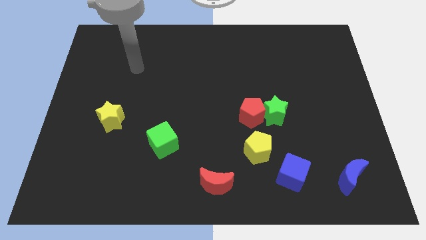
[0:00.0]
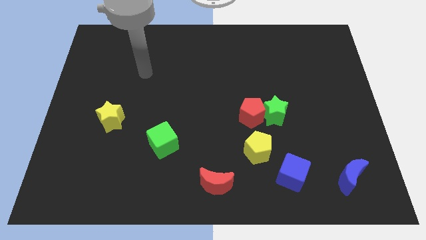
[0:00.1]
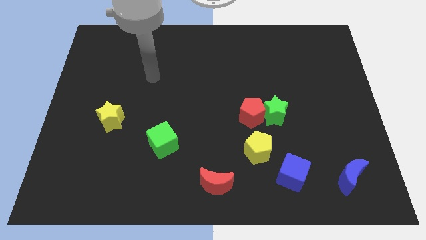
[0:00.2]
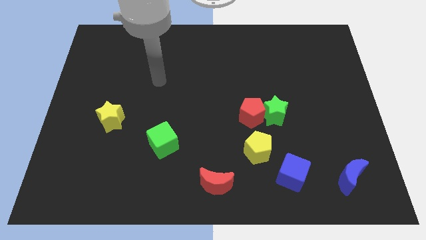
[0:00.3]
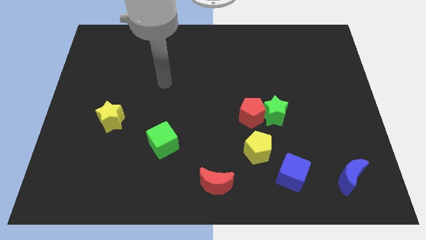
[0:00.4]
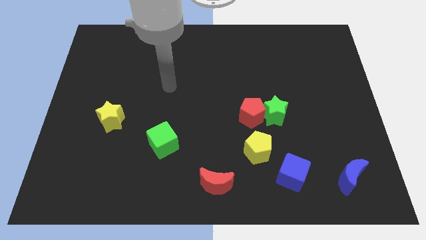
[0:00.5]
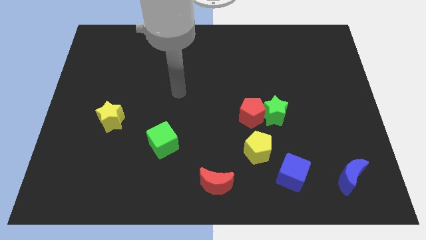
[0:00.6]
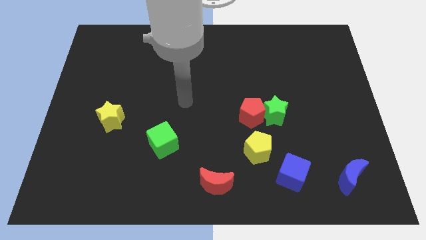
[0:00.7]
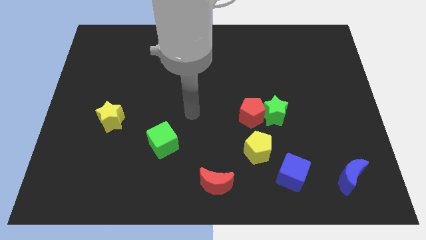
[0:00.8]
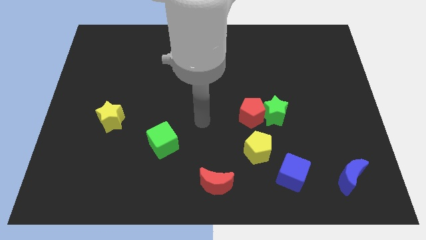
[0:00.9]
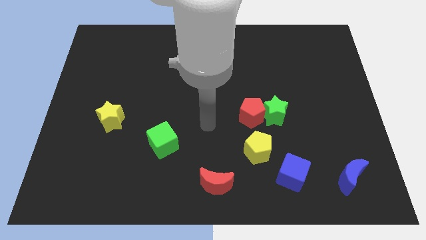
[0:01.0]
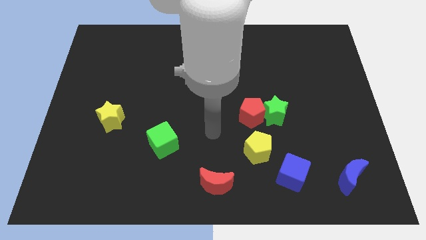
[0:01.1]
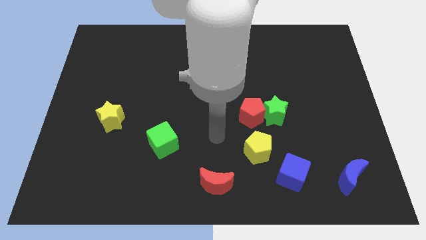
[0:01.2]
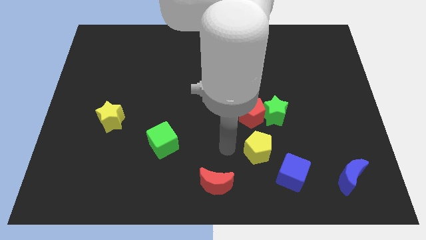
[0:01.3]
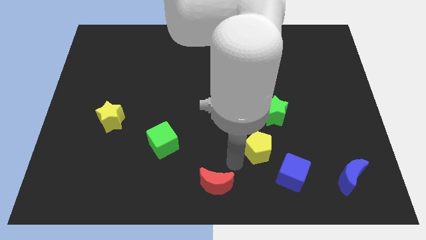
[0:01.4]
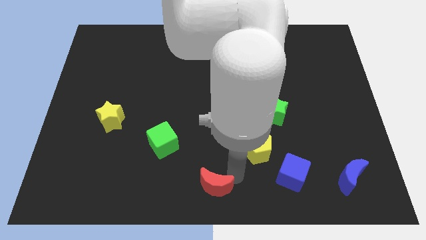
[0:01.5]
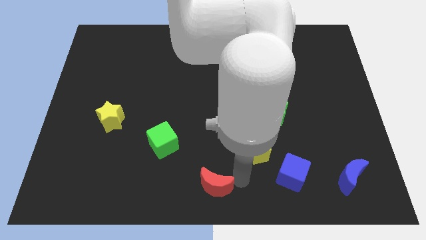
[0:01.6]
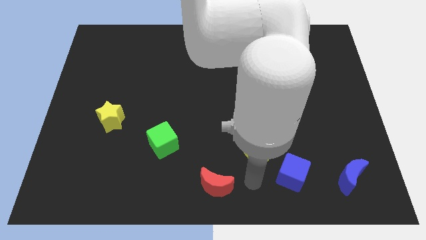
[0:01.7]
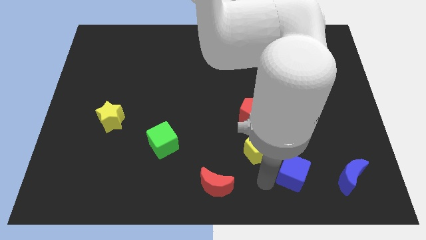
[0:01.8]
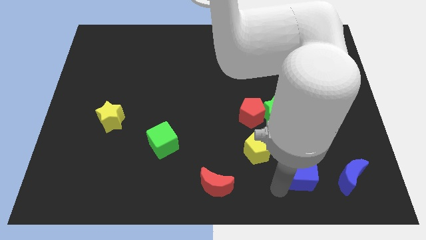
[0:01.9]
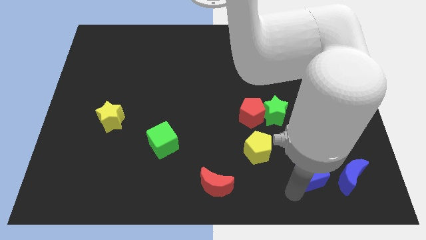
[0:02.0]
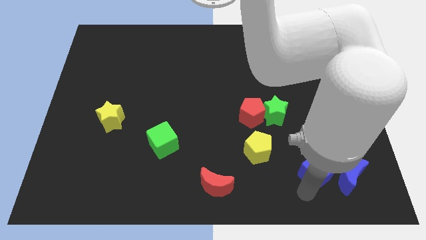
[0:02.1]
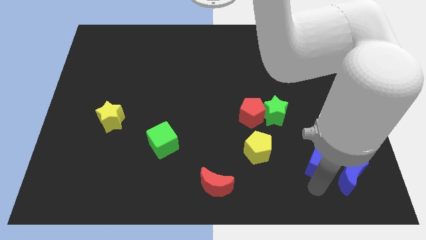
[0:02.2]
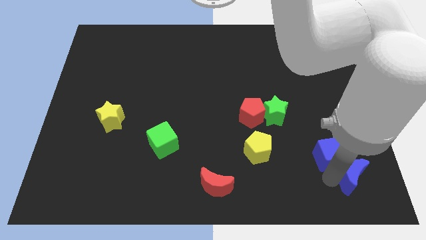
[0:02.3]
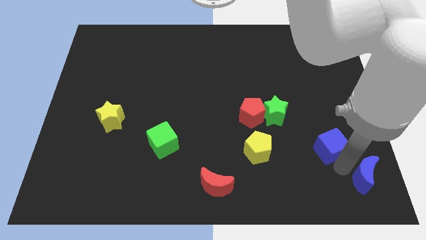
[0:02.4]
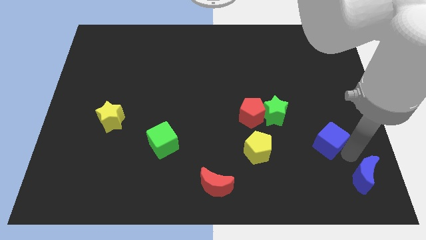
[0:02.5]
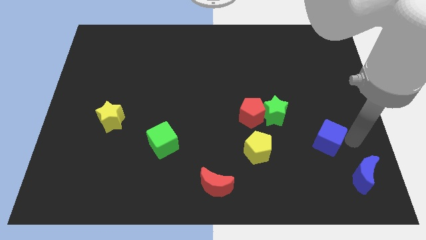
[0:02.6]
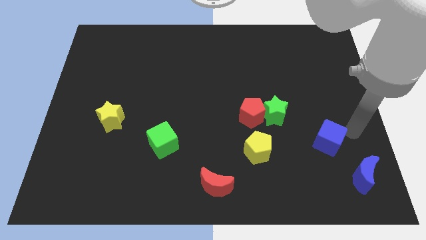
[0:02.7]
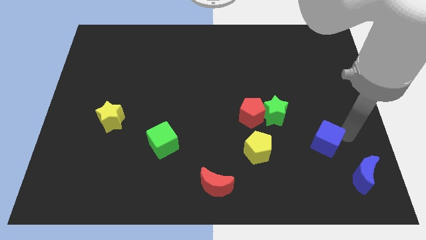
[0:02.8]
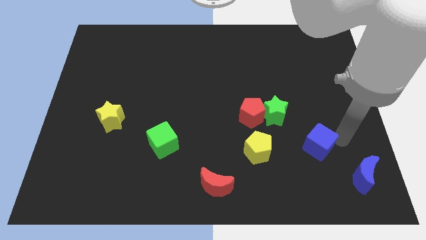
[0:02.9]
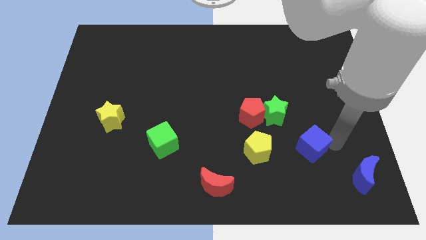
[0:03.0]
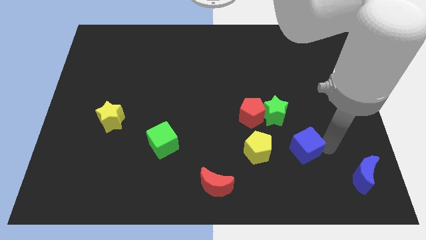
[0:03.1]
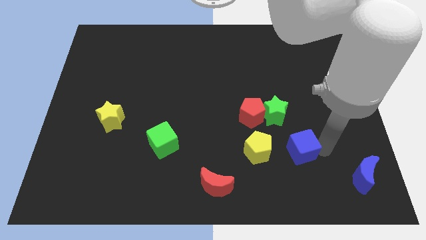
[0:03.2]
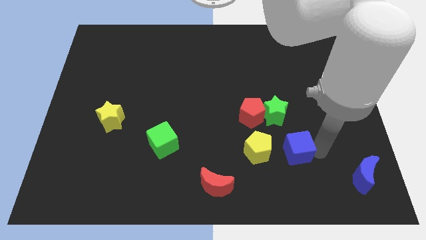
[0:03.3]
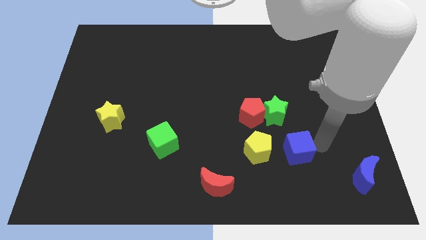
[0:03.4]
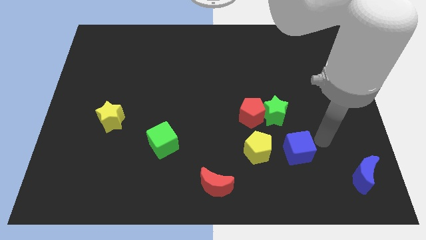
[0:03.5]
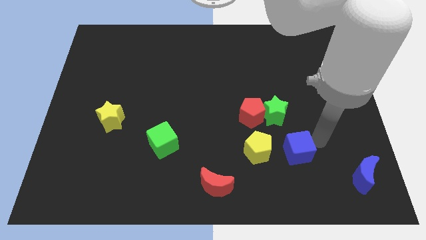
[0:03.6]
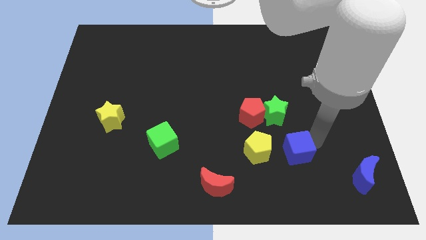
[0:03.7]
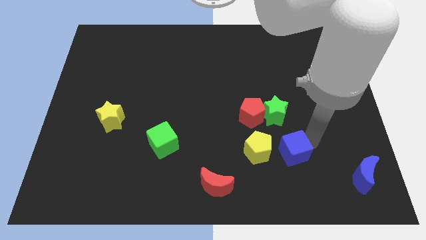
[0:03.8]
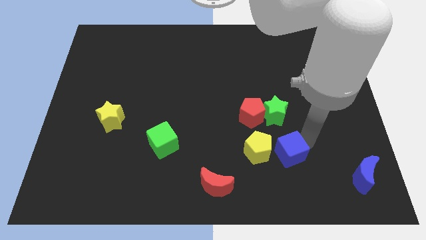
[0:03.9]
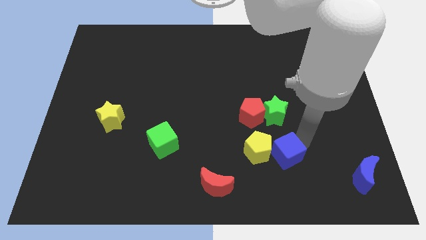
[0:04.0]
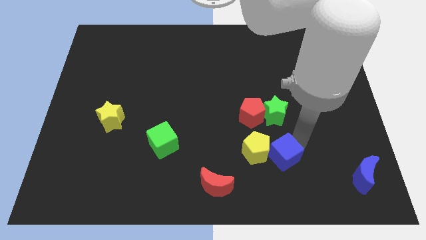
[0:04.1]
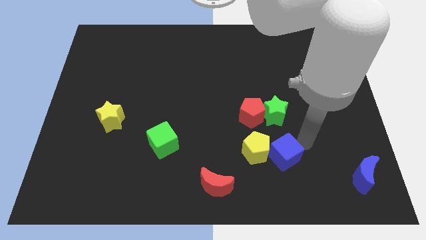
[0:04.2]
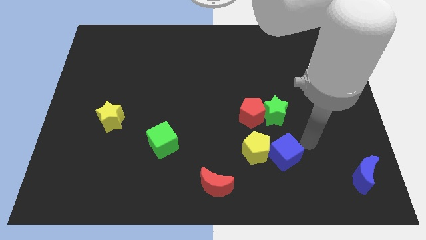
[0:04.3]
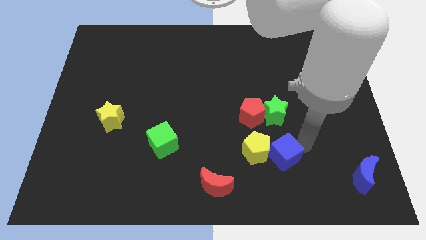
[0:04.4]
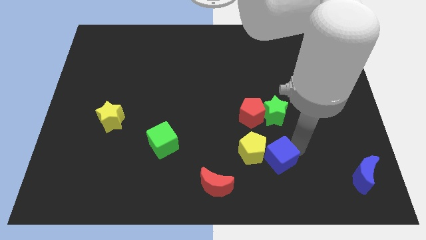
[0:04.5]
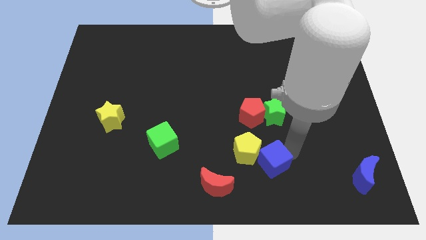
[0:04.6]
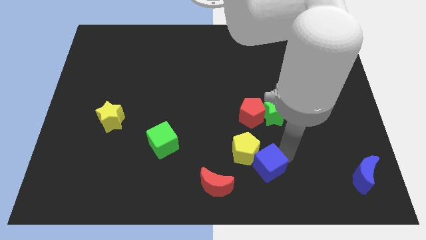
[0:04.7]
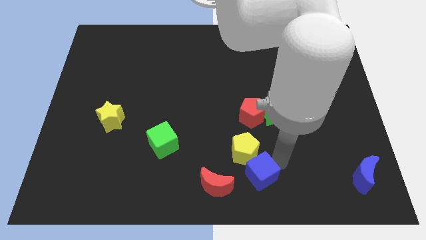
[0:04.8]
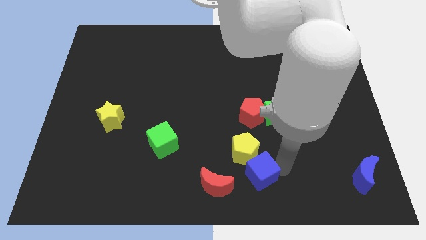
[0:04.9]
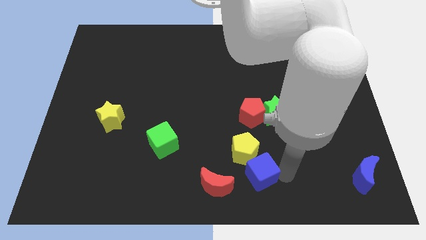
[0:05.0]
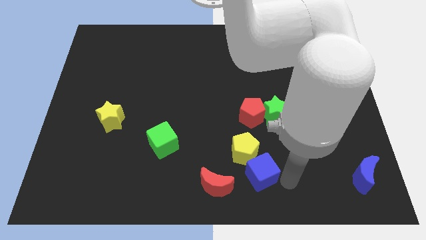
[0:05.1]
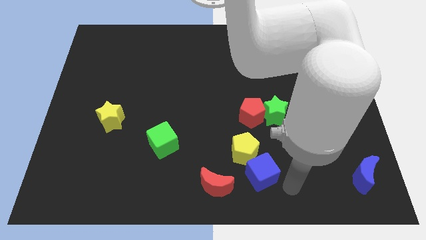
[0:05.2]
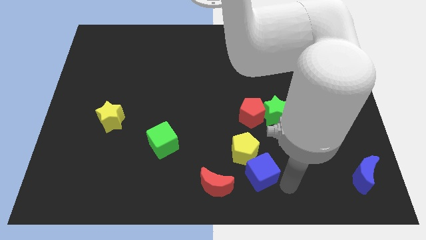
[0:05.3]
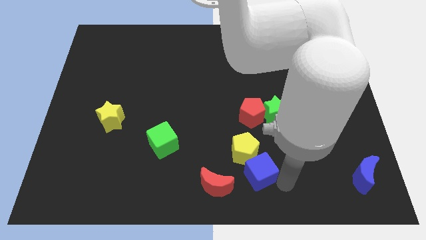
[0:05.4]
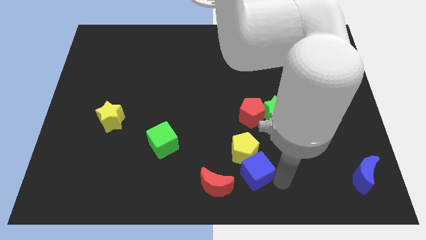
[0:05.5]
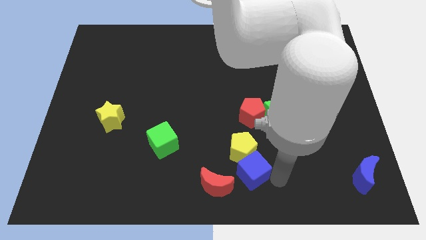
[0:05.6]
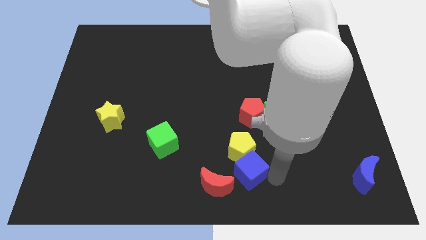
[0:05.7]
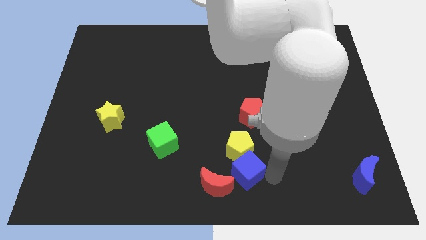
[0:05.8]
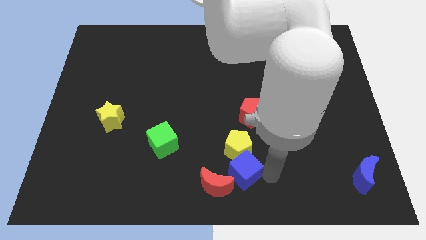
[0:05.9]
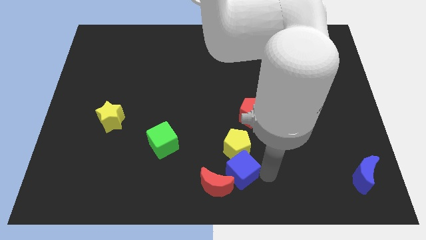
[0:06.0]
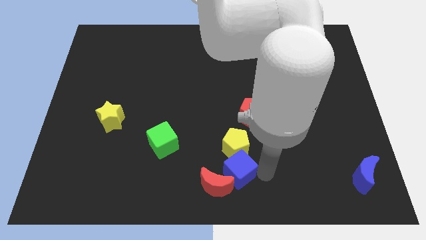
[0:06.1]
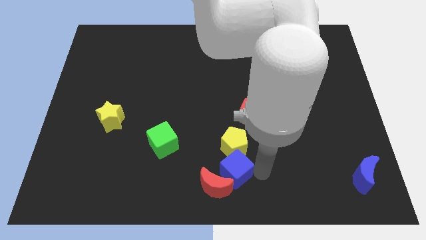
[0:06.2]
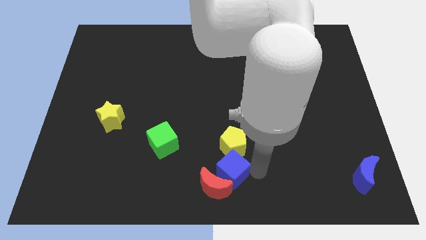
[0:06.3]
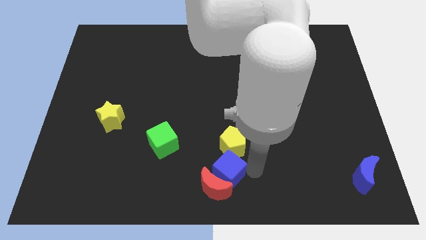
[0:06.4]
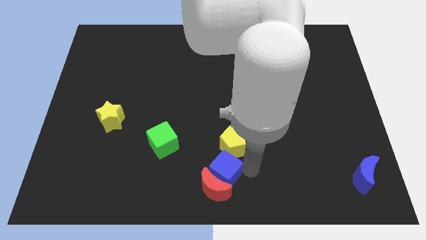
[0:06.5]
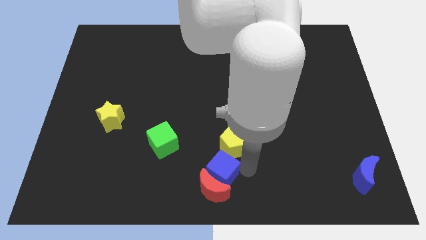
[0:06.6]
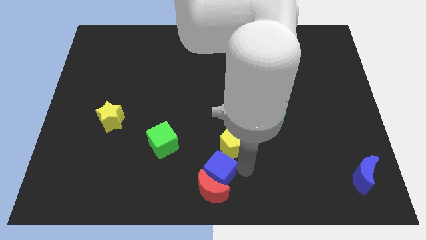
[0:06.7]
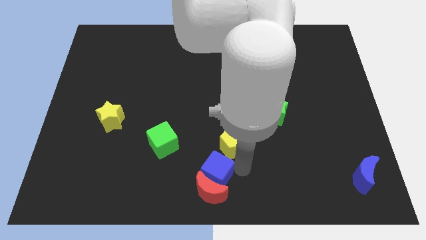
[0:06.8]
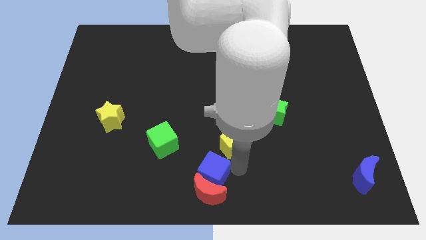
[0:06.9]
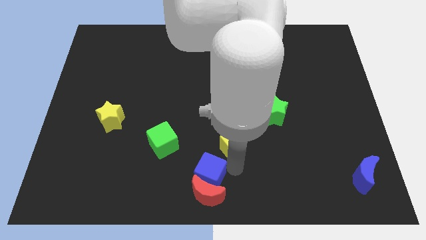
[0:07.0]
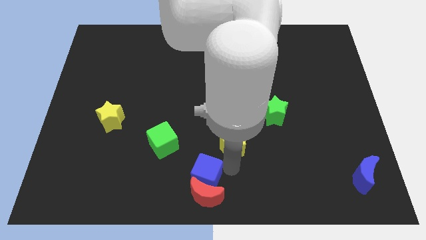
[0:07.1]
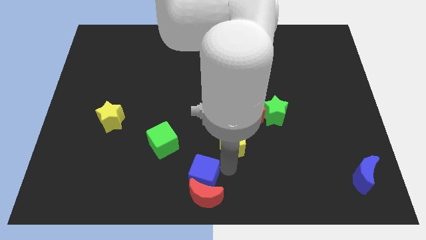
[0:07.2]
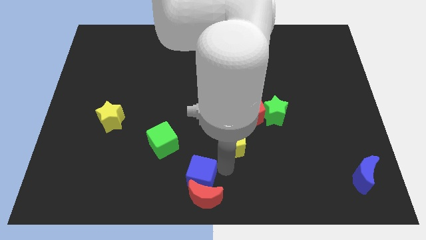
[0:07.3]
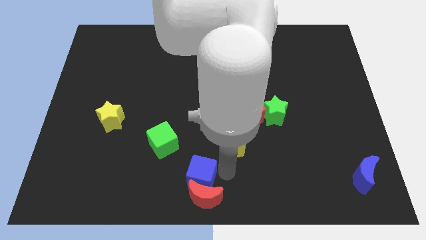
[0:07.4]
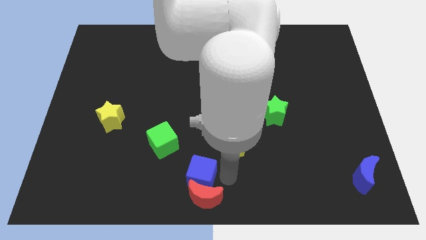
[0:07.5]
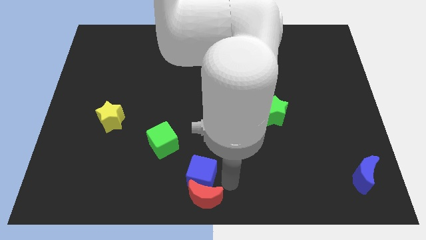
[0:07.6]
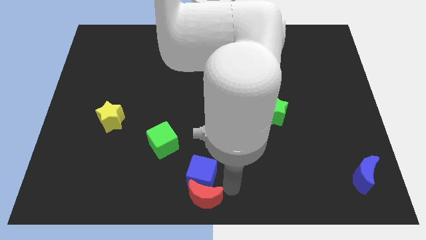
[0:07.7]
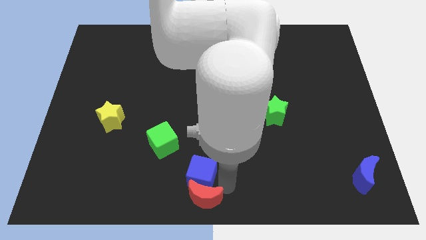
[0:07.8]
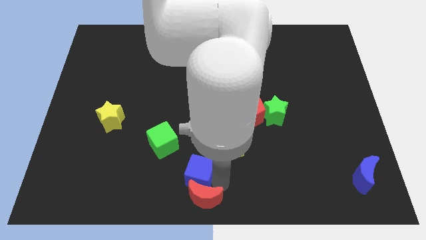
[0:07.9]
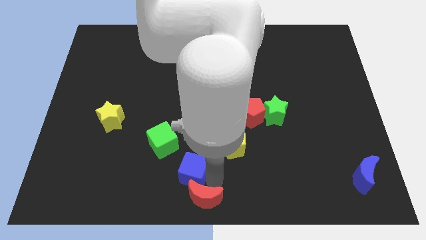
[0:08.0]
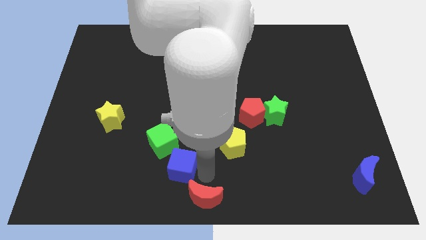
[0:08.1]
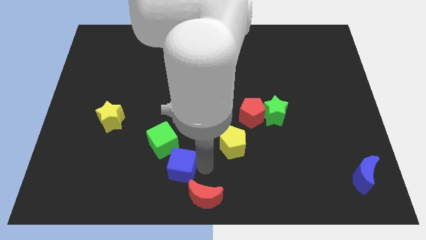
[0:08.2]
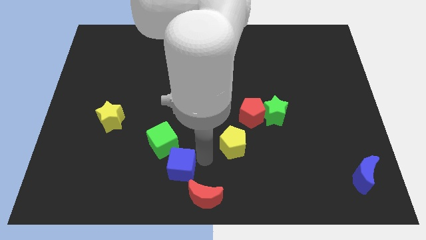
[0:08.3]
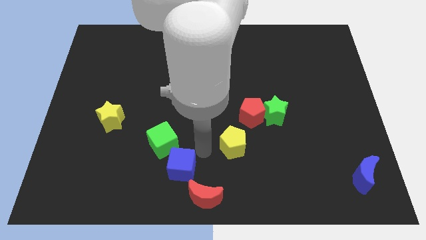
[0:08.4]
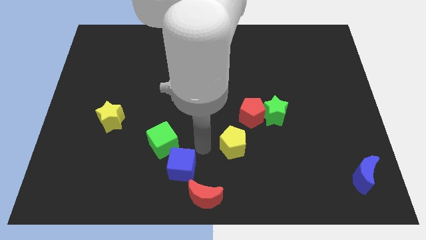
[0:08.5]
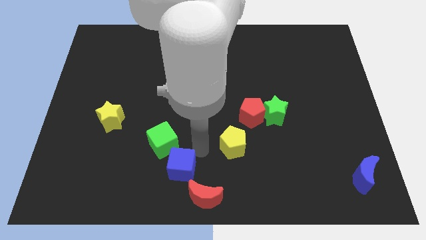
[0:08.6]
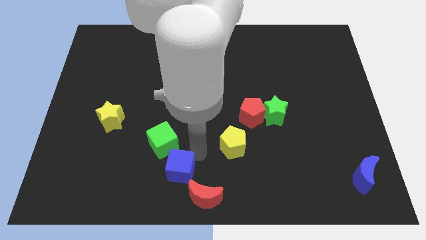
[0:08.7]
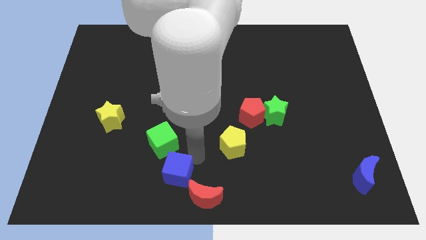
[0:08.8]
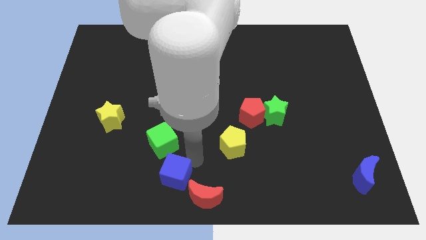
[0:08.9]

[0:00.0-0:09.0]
move the blue cube just left of the red moon
